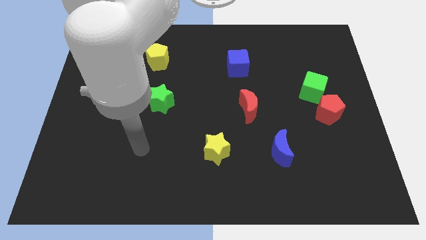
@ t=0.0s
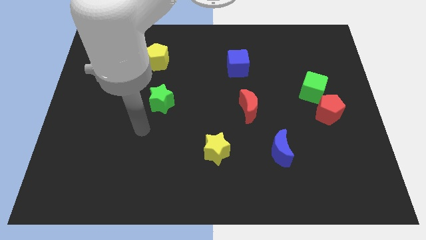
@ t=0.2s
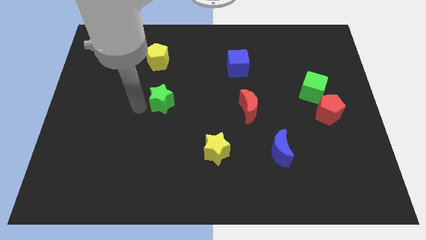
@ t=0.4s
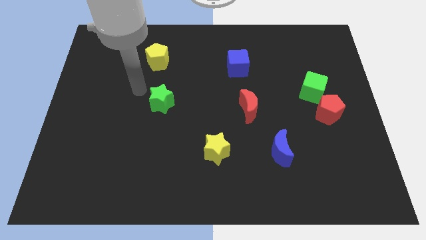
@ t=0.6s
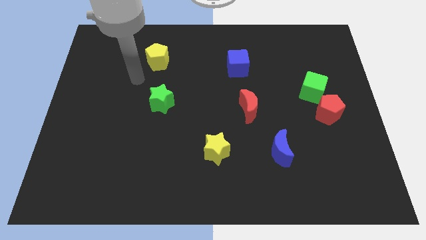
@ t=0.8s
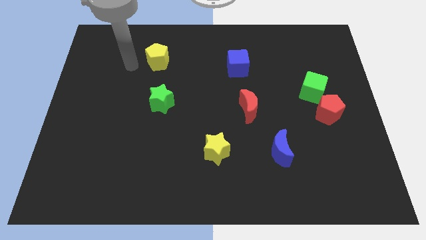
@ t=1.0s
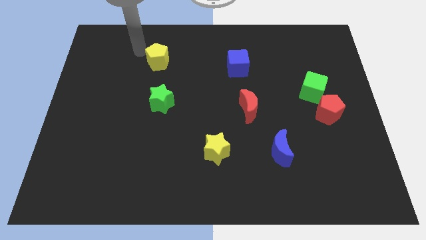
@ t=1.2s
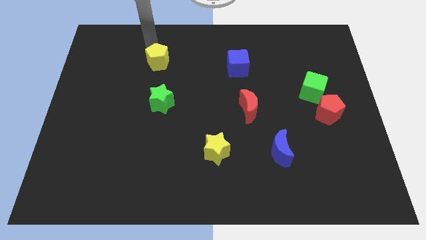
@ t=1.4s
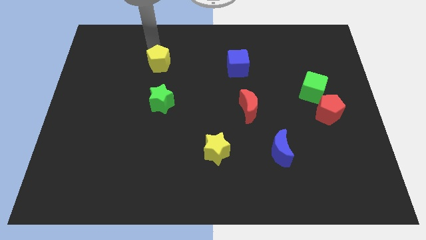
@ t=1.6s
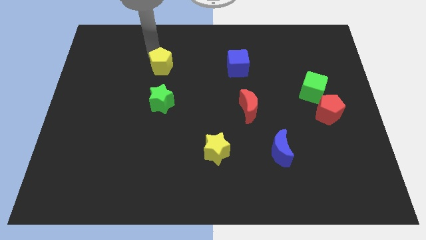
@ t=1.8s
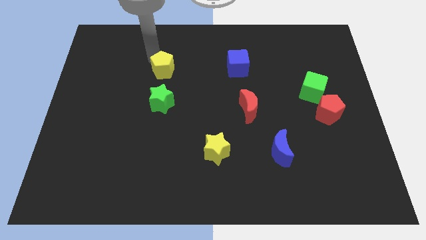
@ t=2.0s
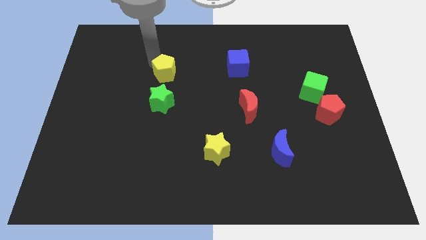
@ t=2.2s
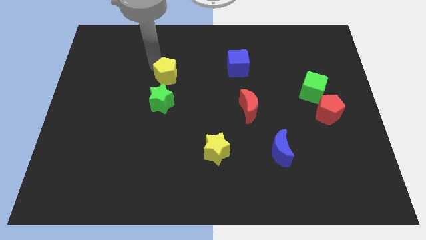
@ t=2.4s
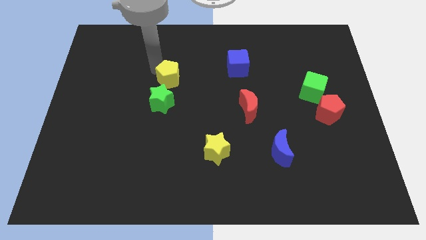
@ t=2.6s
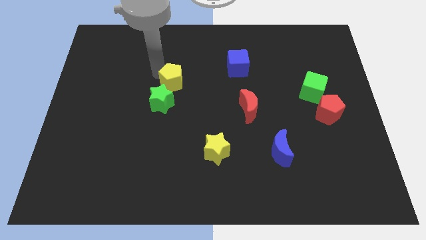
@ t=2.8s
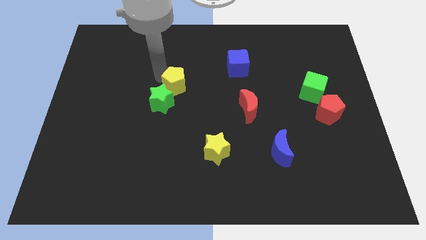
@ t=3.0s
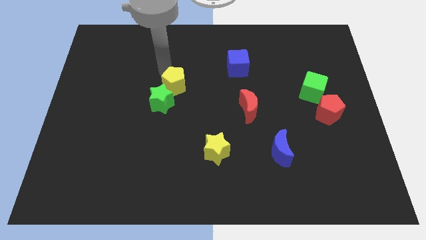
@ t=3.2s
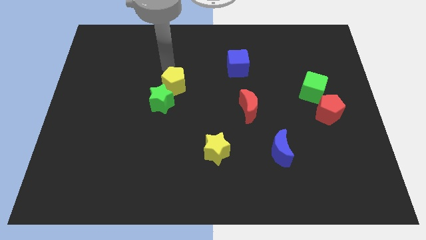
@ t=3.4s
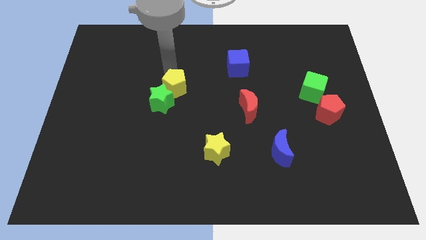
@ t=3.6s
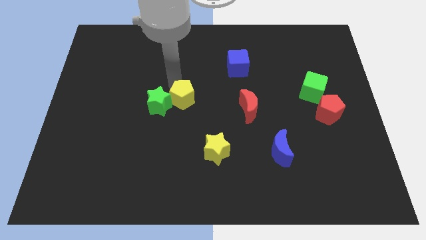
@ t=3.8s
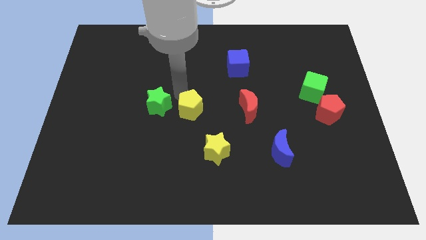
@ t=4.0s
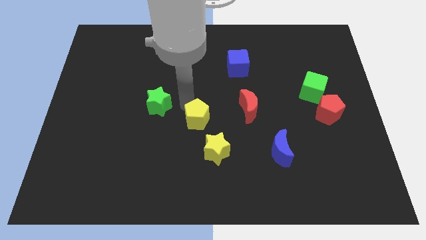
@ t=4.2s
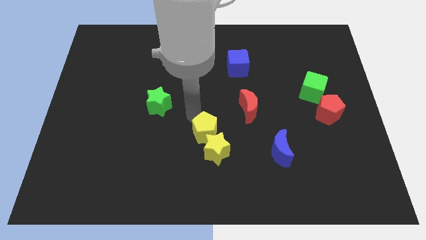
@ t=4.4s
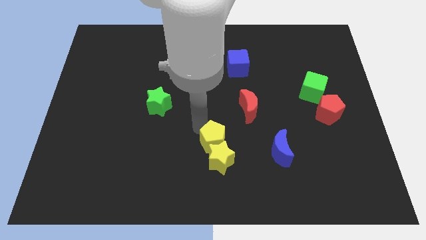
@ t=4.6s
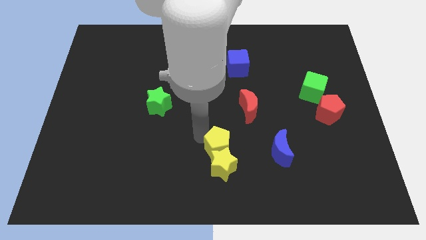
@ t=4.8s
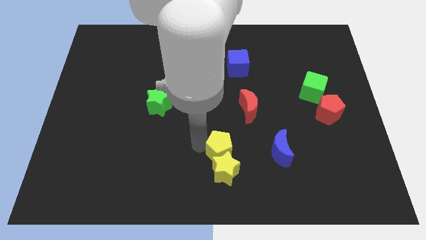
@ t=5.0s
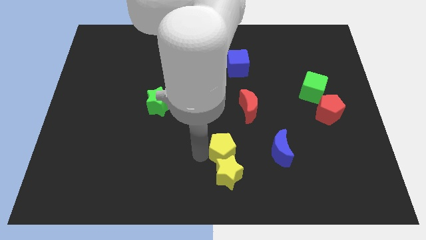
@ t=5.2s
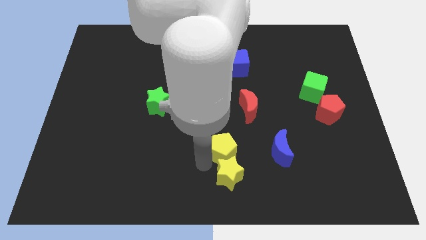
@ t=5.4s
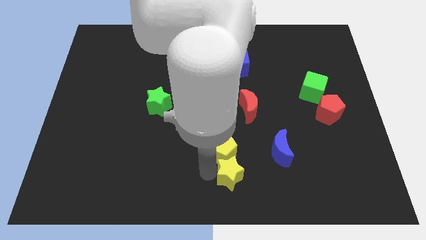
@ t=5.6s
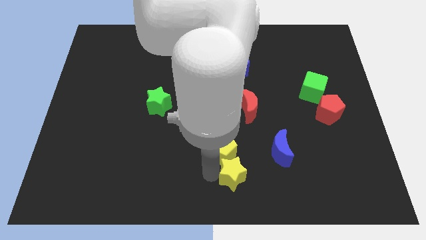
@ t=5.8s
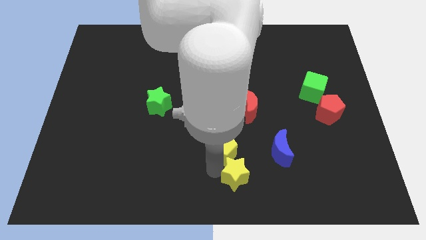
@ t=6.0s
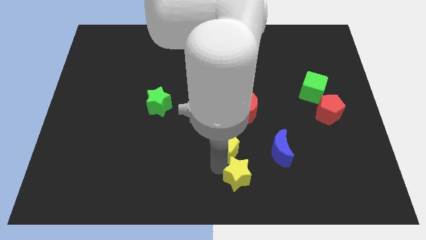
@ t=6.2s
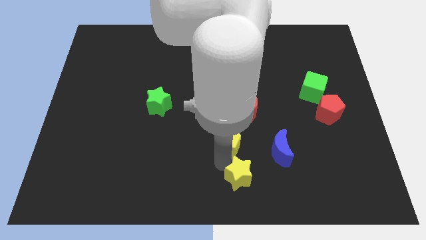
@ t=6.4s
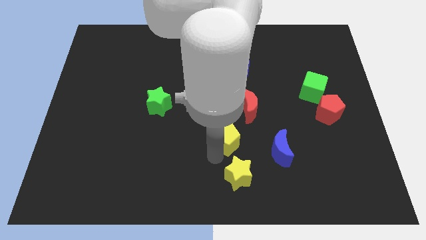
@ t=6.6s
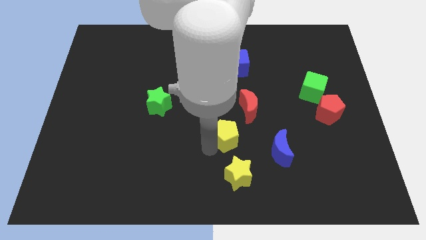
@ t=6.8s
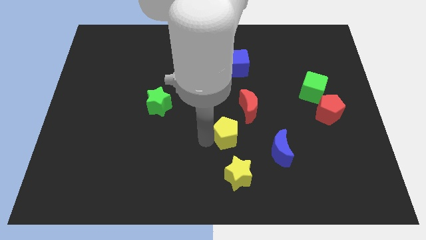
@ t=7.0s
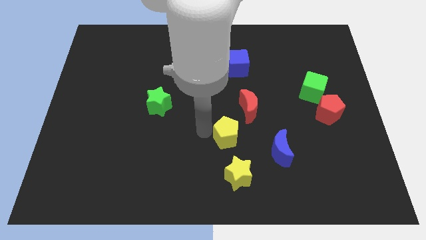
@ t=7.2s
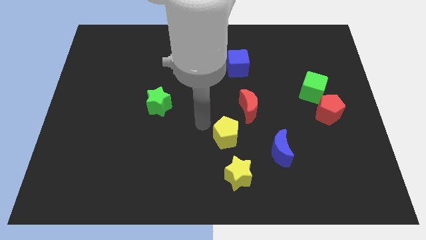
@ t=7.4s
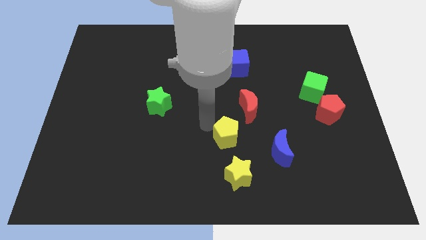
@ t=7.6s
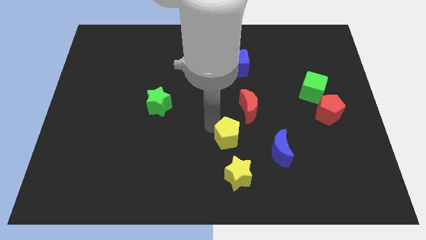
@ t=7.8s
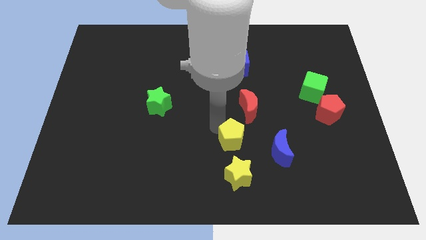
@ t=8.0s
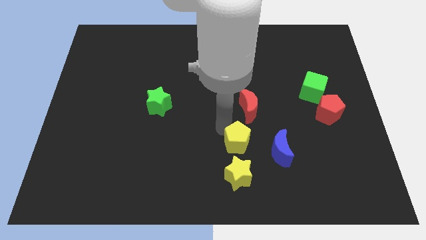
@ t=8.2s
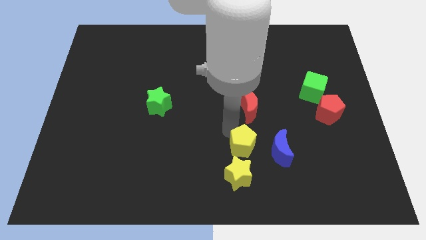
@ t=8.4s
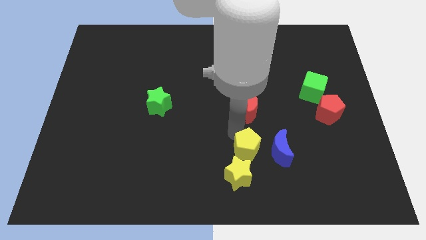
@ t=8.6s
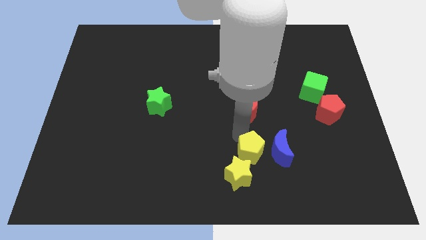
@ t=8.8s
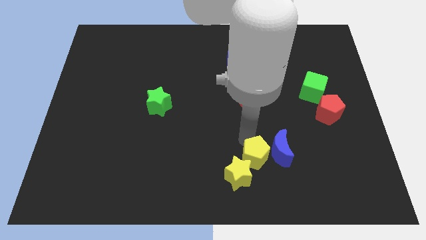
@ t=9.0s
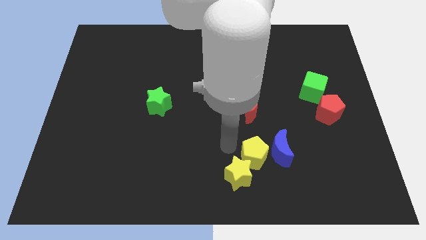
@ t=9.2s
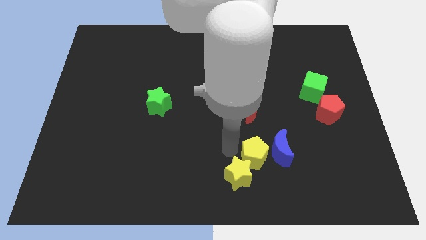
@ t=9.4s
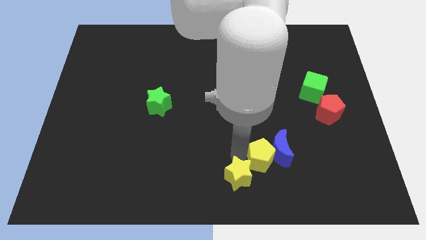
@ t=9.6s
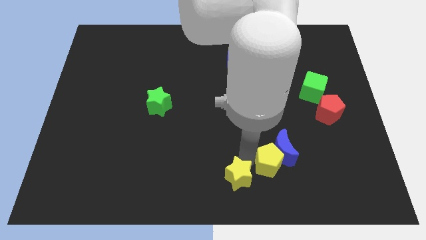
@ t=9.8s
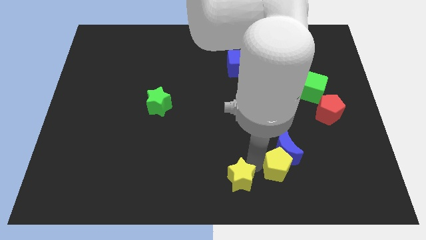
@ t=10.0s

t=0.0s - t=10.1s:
push the yellow pentagon diagonally down and to the right of the blue moon

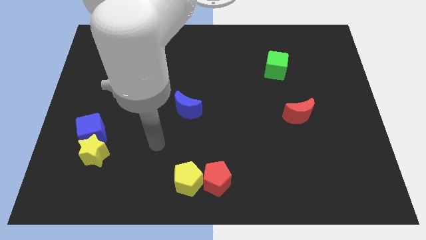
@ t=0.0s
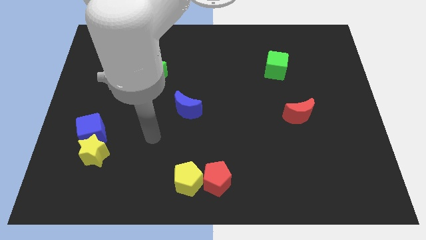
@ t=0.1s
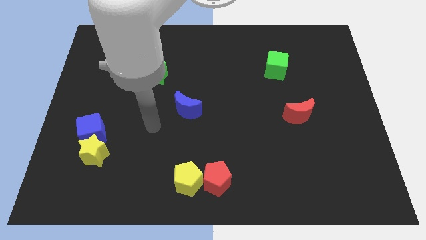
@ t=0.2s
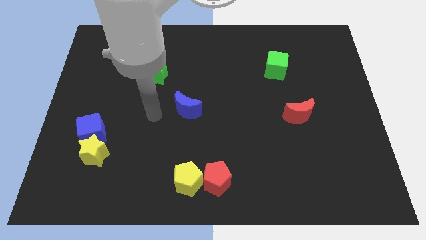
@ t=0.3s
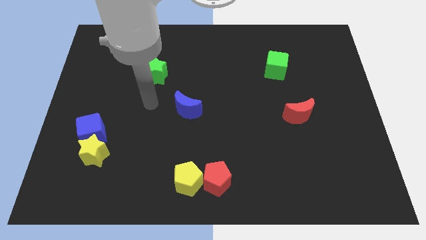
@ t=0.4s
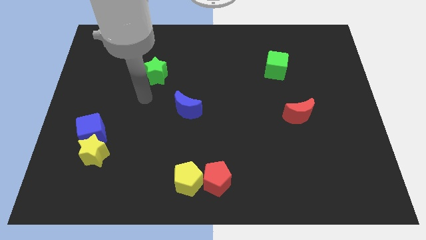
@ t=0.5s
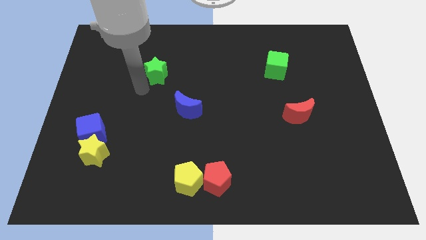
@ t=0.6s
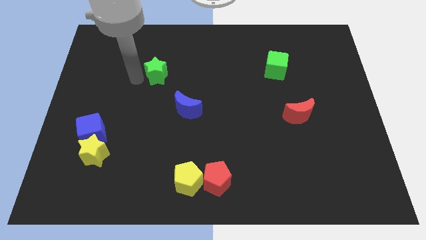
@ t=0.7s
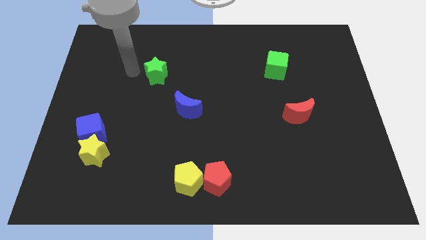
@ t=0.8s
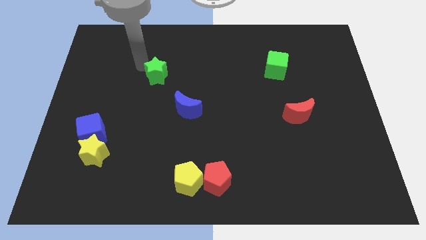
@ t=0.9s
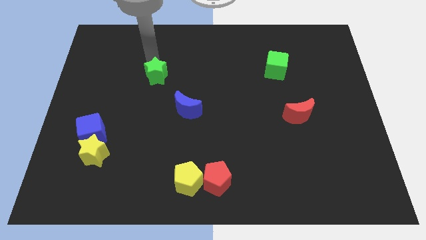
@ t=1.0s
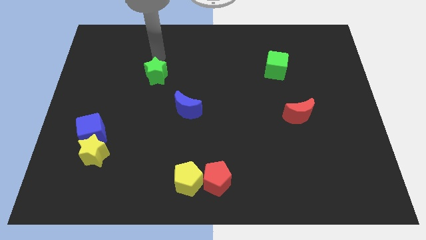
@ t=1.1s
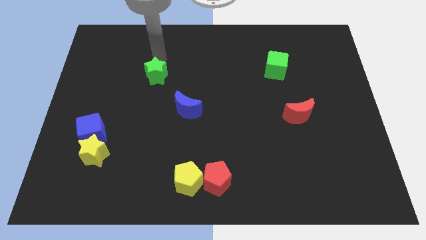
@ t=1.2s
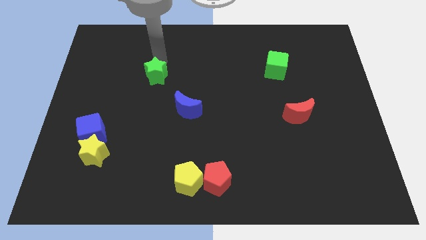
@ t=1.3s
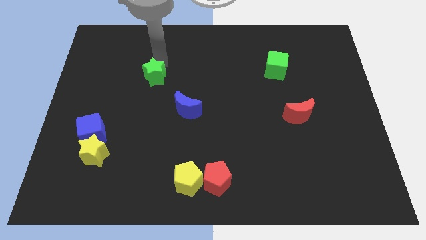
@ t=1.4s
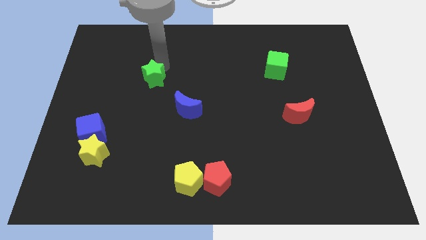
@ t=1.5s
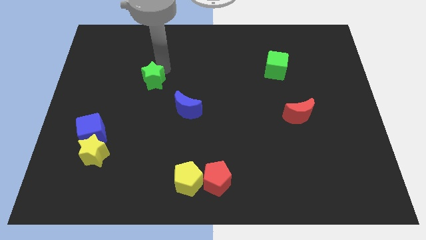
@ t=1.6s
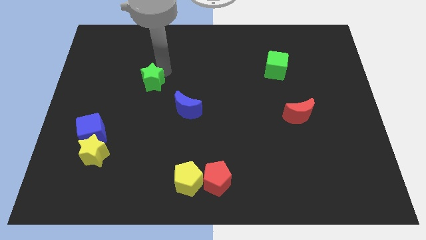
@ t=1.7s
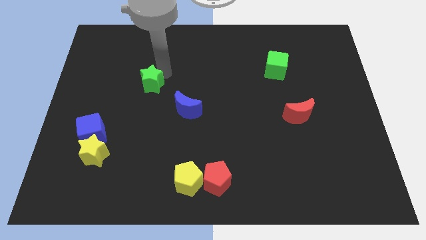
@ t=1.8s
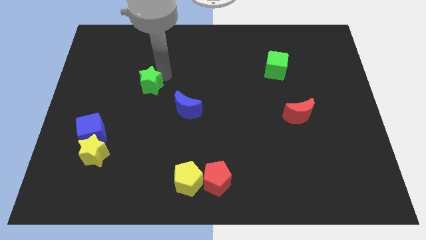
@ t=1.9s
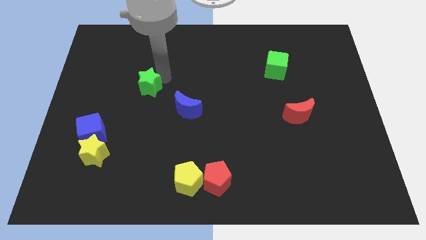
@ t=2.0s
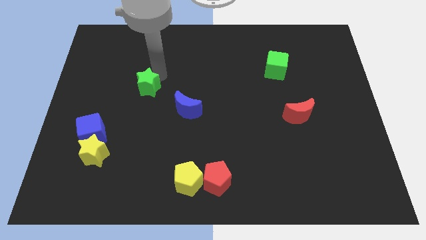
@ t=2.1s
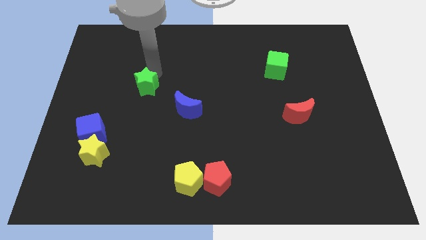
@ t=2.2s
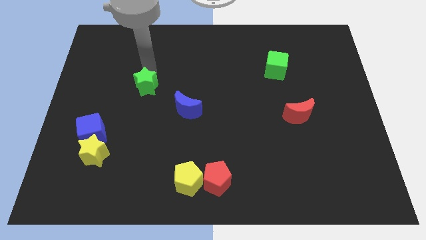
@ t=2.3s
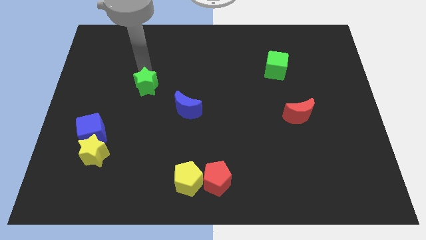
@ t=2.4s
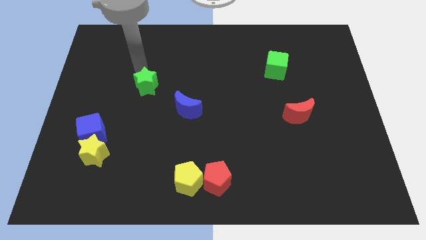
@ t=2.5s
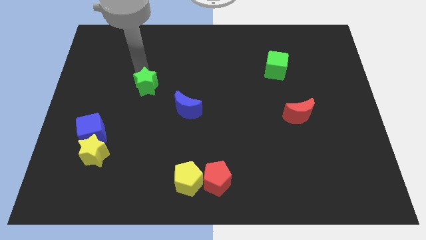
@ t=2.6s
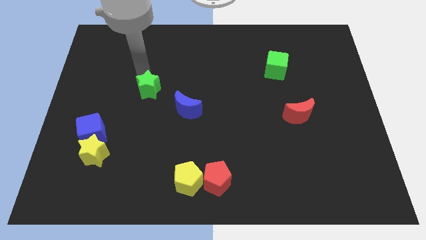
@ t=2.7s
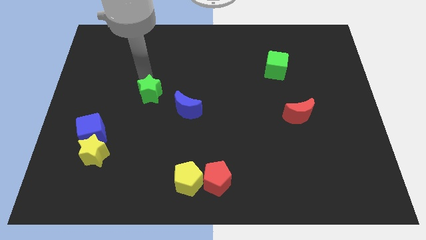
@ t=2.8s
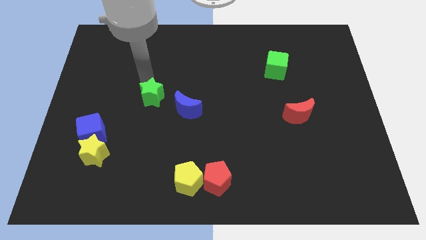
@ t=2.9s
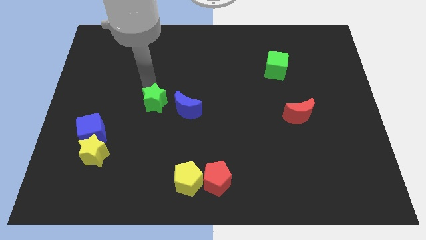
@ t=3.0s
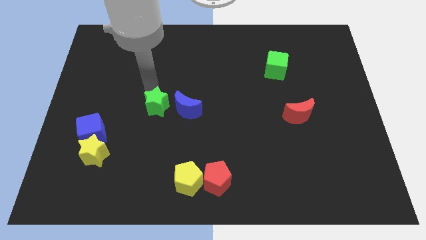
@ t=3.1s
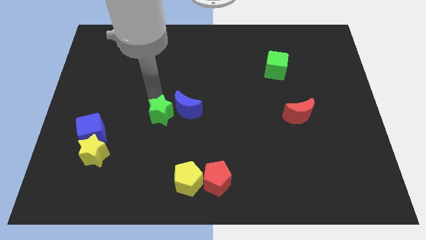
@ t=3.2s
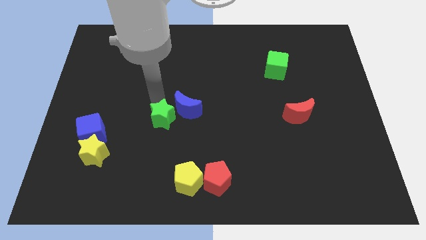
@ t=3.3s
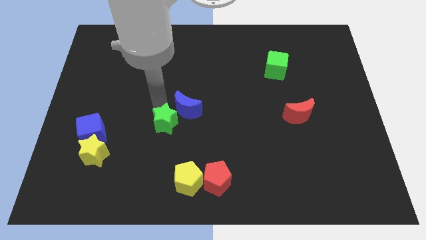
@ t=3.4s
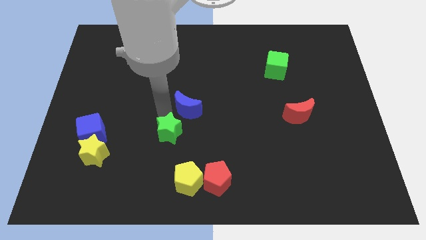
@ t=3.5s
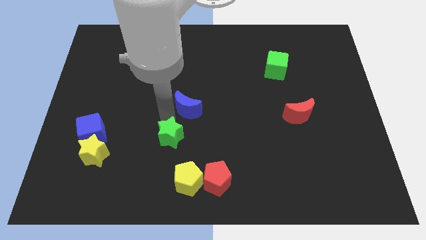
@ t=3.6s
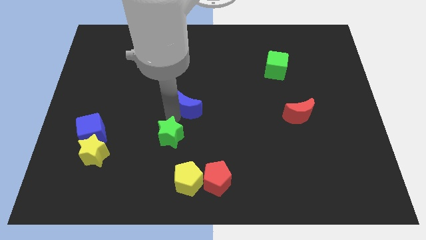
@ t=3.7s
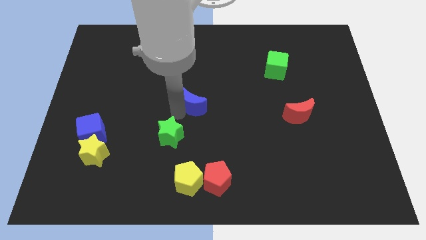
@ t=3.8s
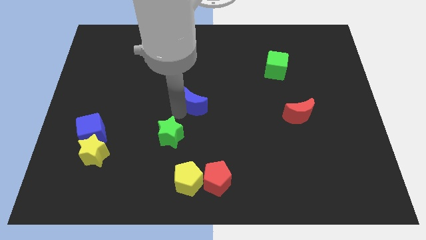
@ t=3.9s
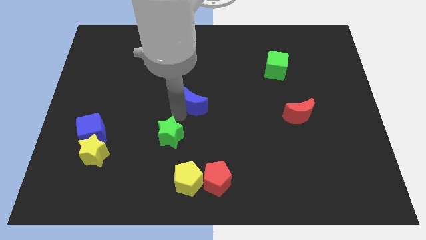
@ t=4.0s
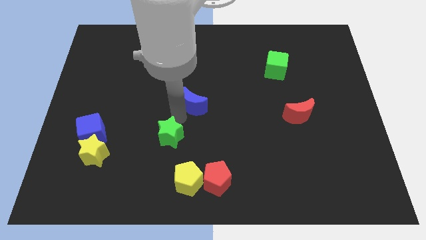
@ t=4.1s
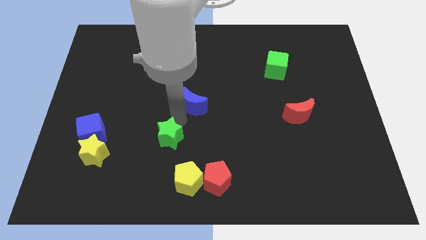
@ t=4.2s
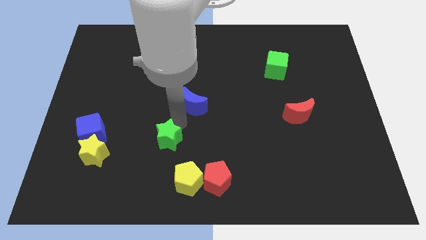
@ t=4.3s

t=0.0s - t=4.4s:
slide the green star to the top left side of the yellow pentagon
